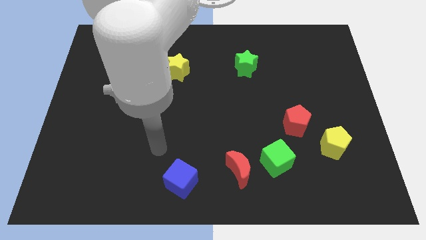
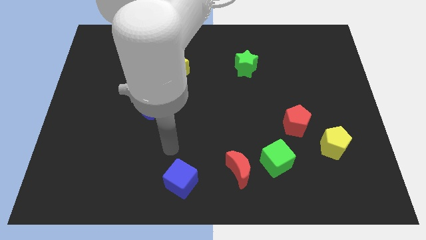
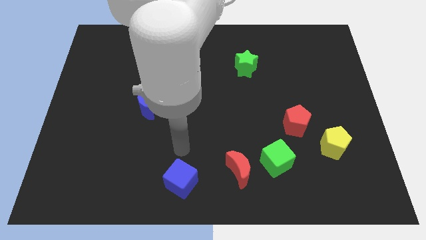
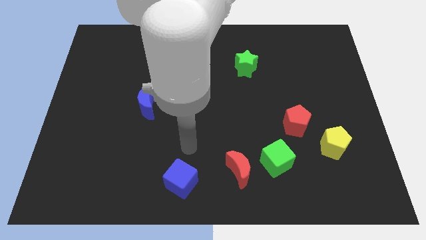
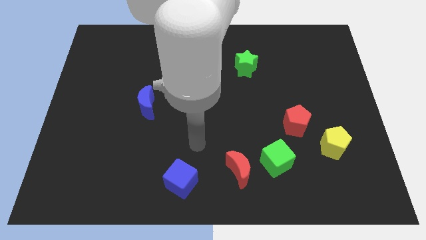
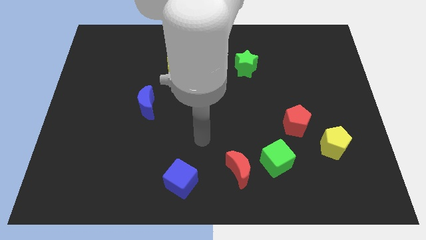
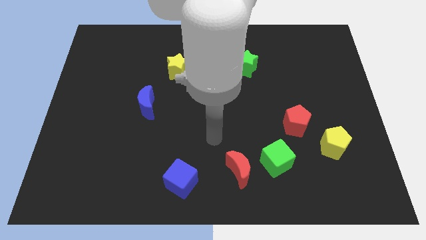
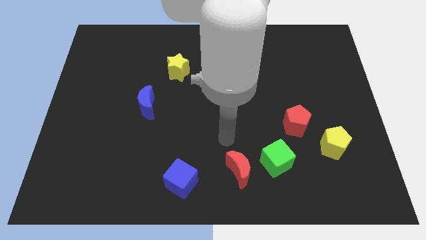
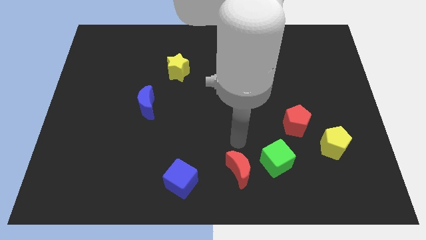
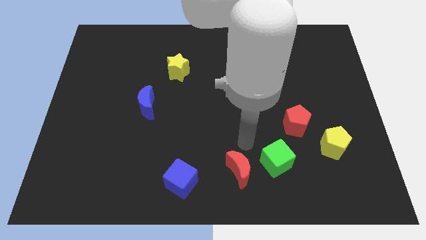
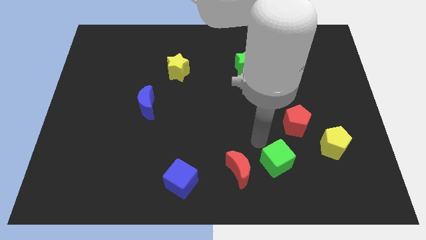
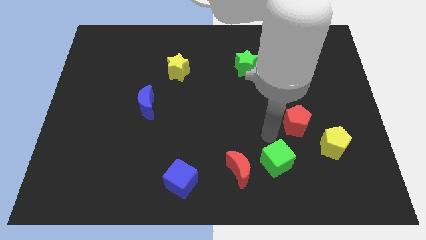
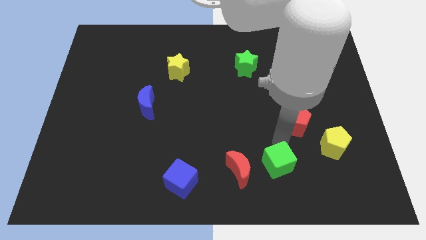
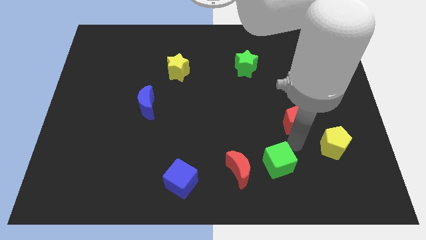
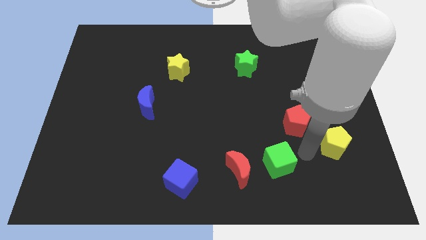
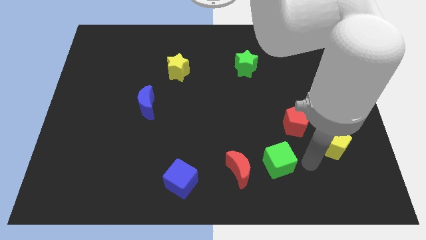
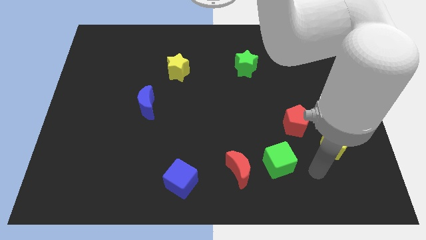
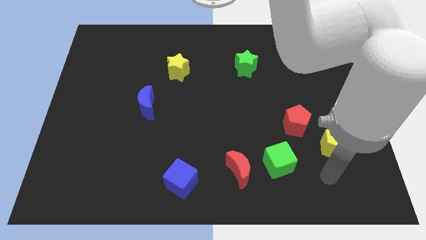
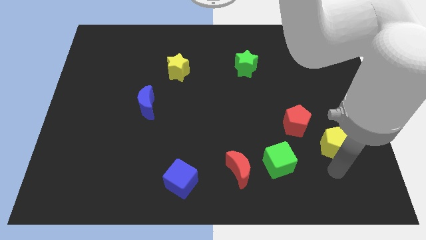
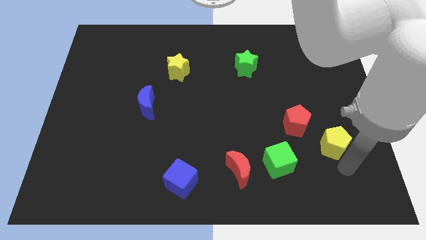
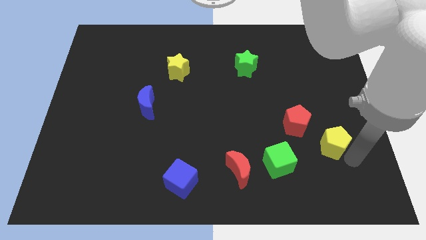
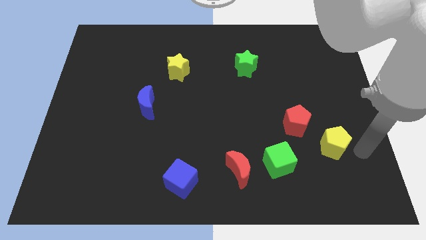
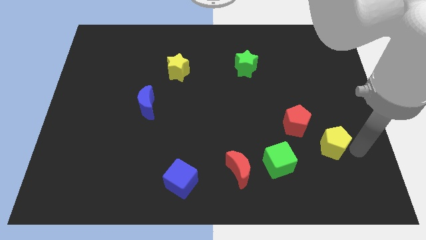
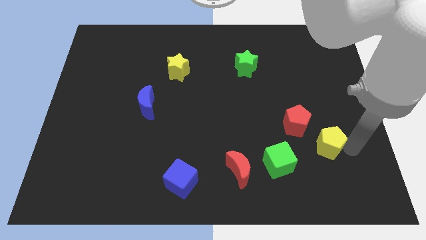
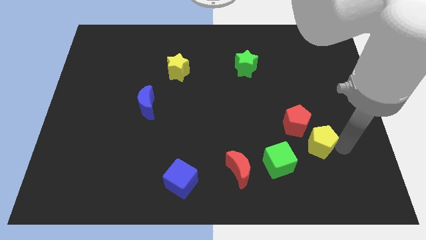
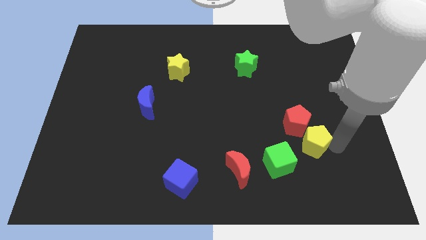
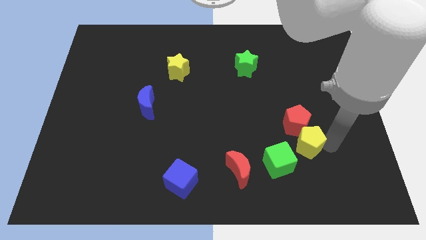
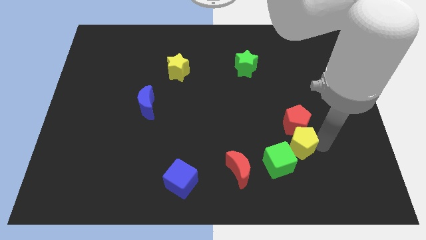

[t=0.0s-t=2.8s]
move the yellow pentagon a bit left

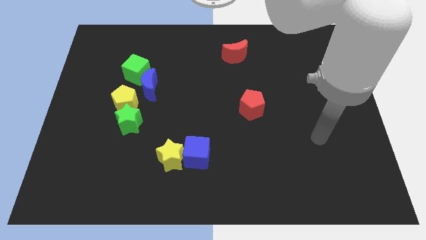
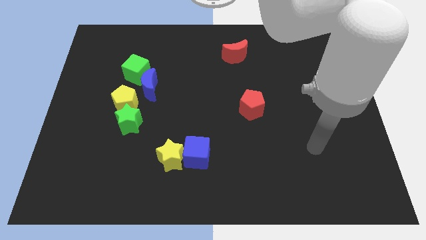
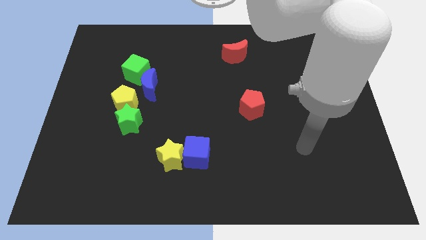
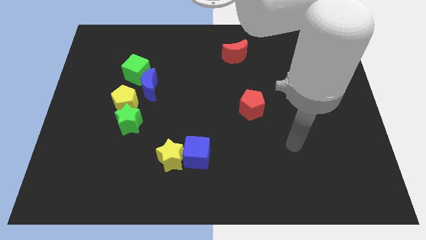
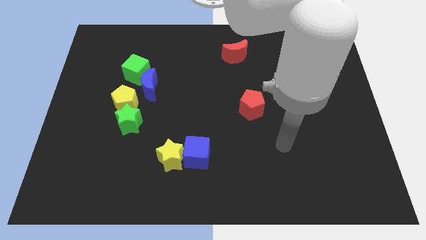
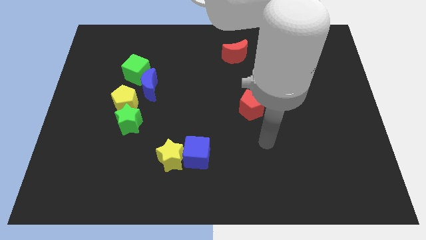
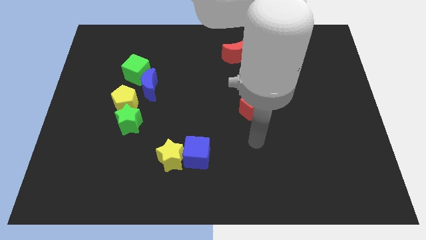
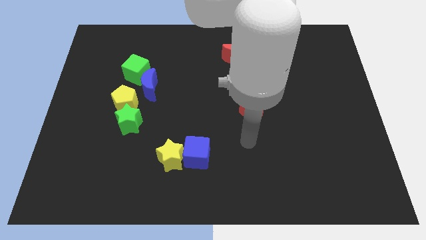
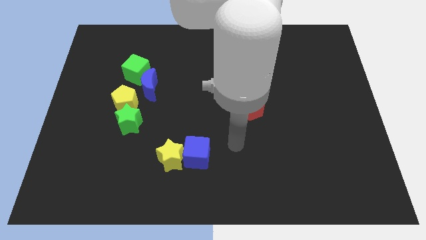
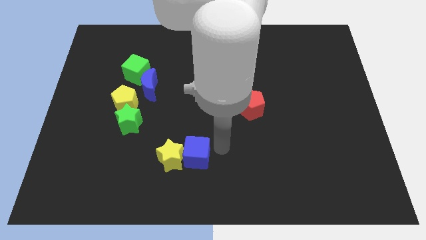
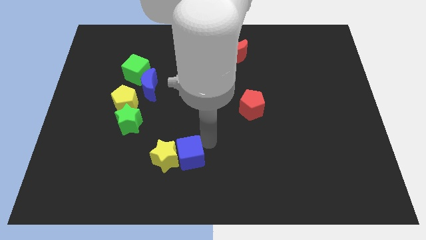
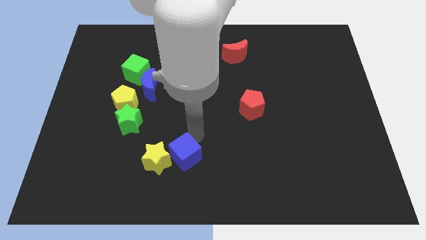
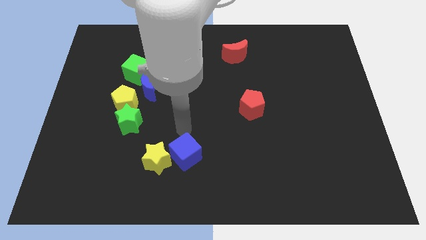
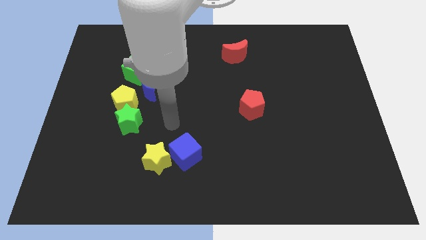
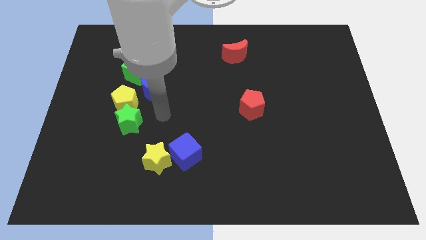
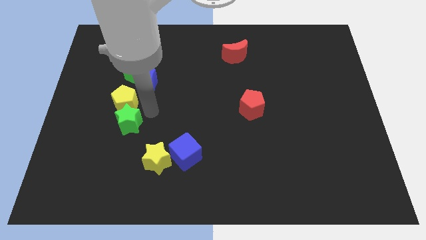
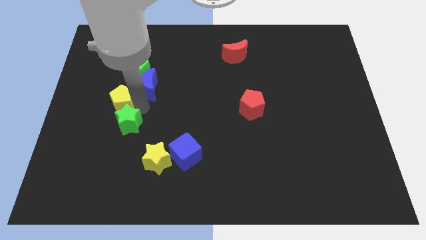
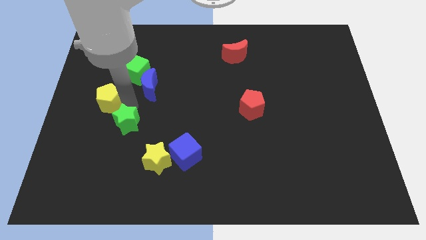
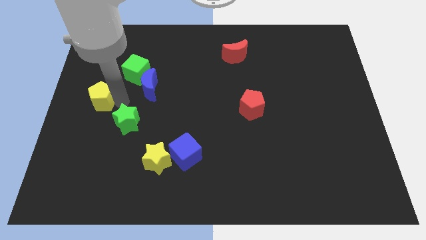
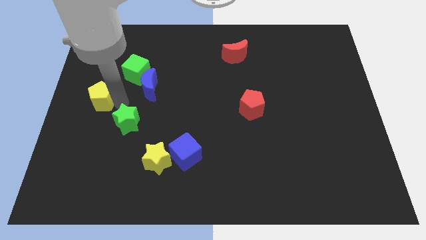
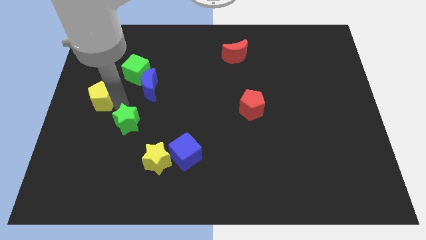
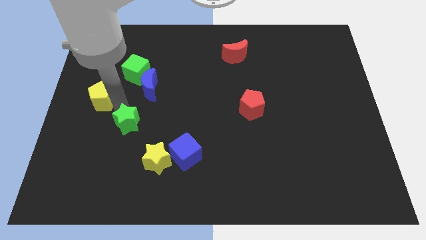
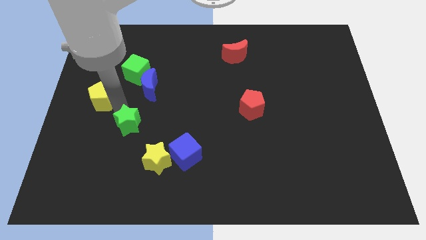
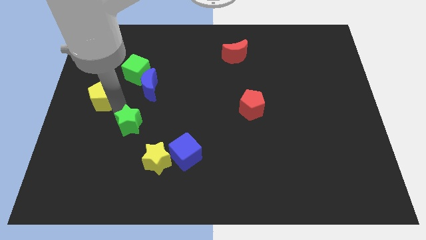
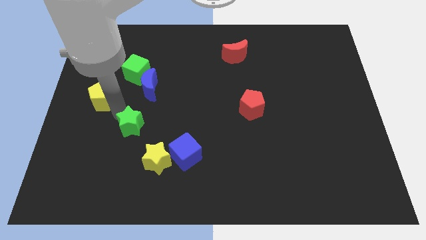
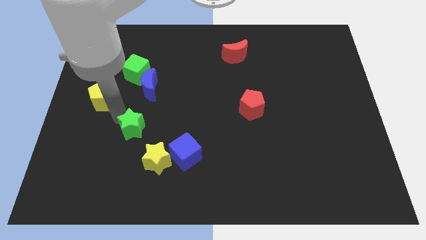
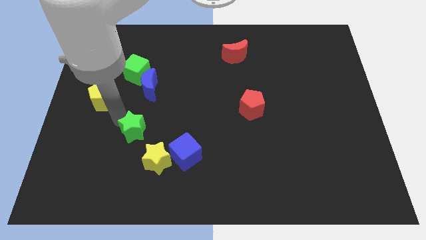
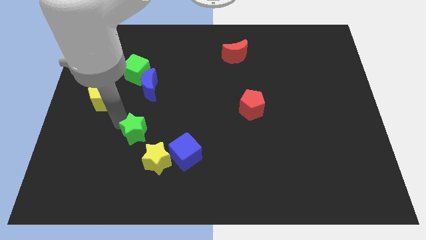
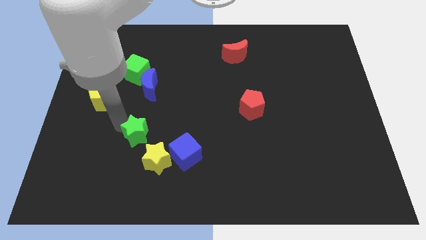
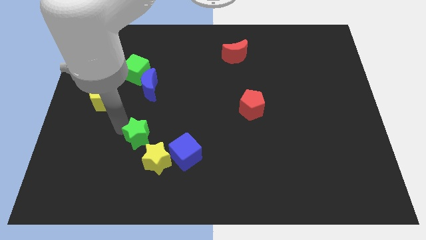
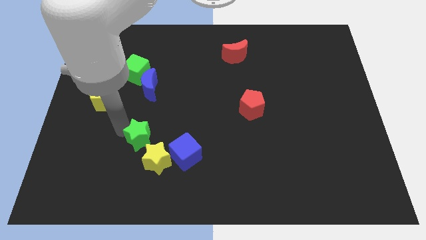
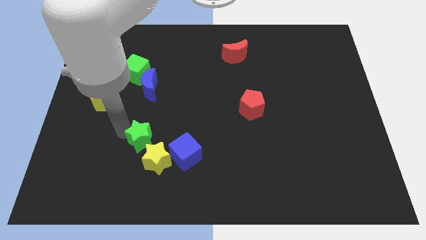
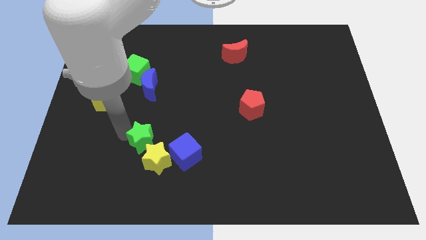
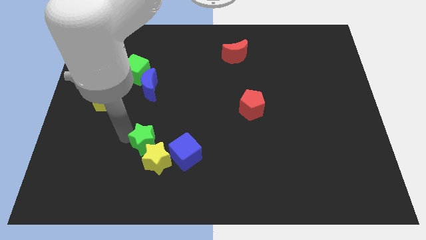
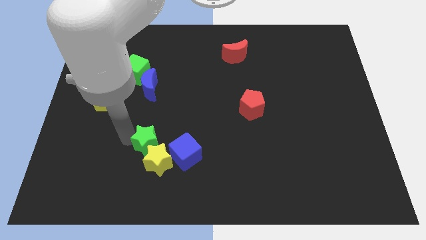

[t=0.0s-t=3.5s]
slightly move the green star diagonally down and to the right

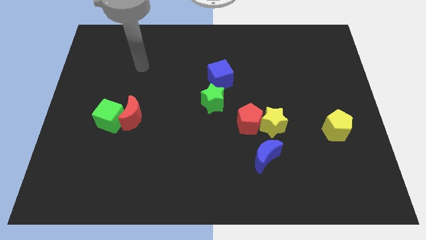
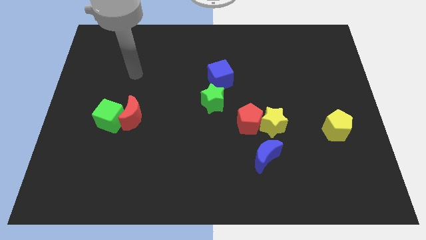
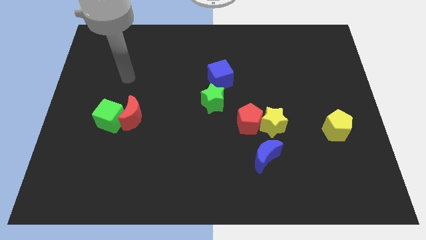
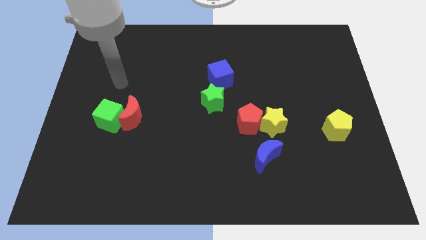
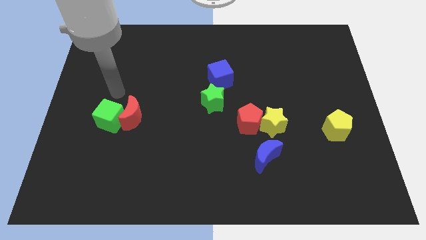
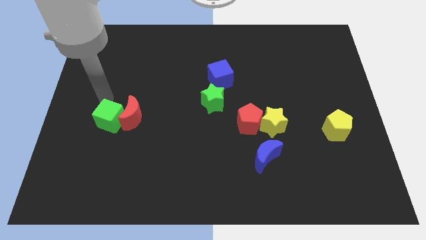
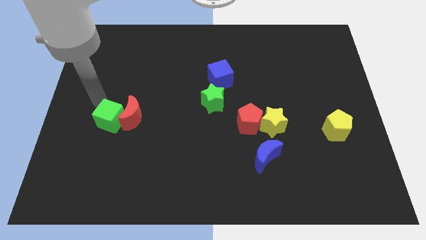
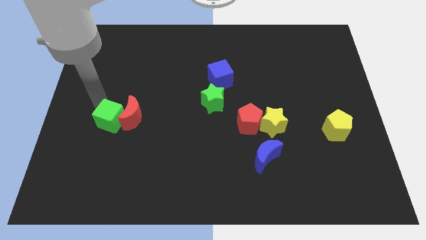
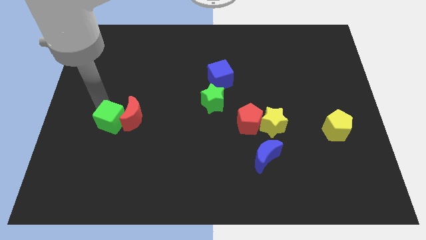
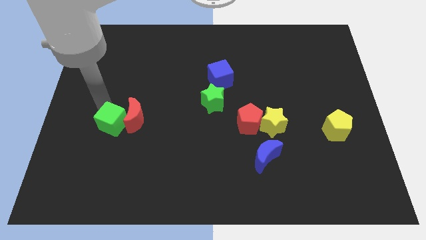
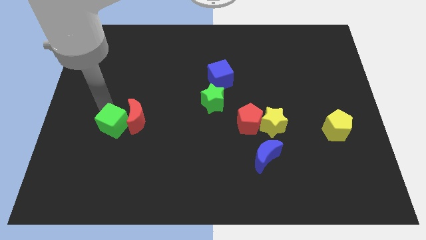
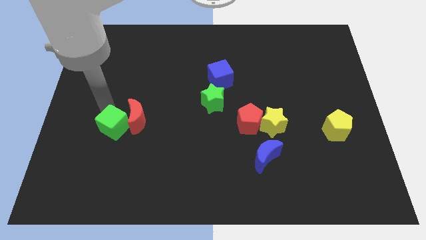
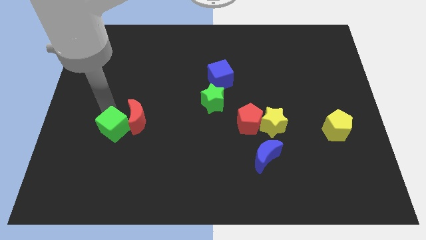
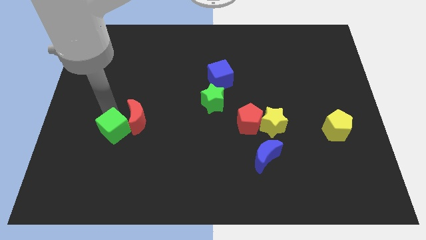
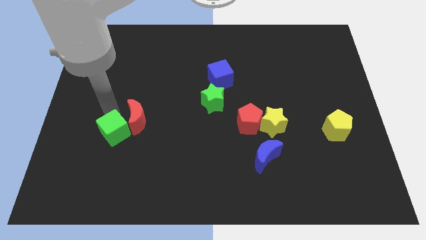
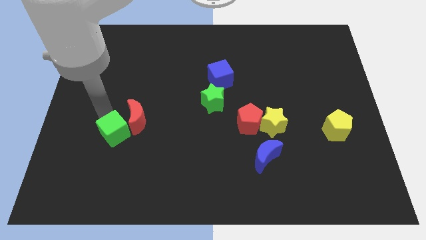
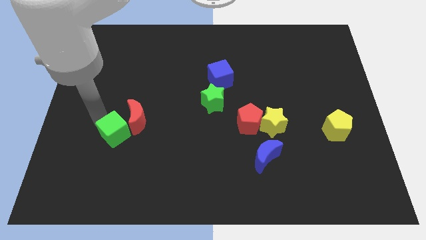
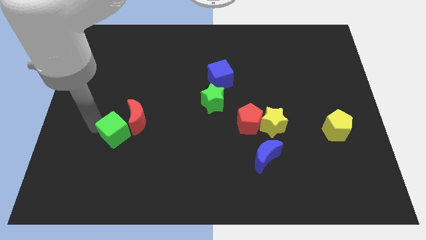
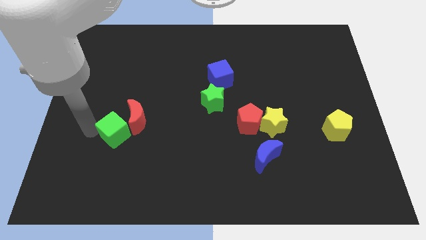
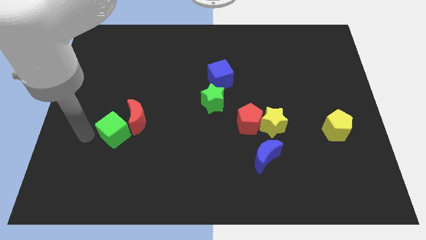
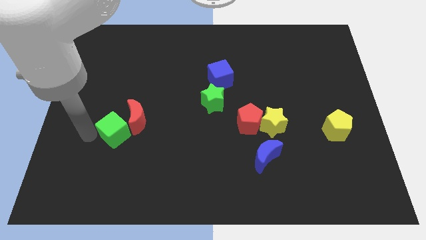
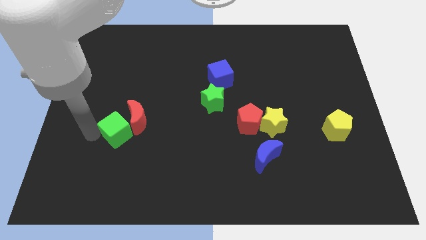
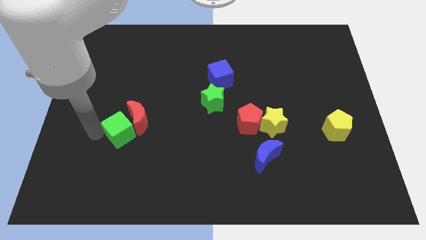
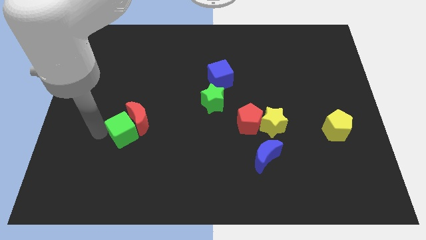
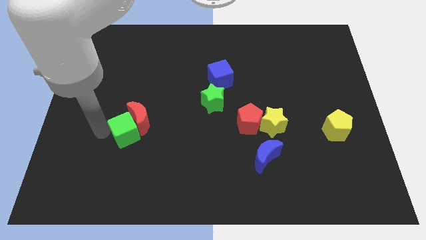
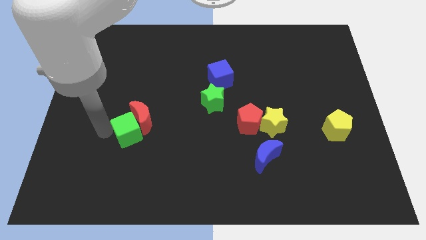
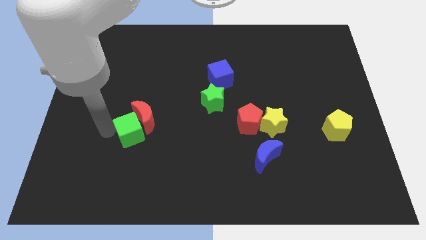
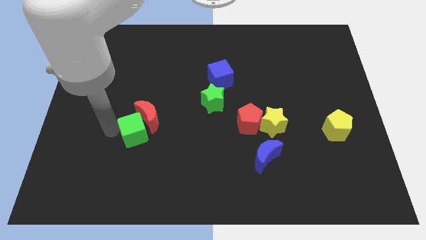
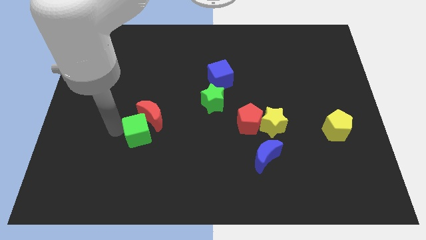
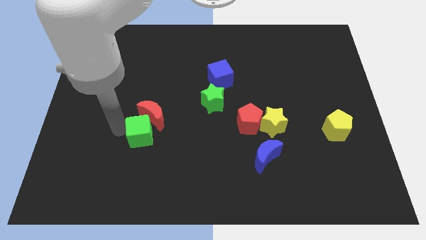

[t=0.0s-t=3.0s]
move the green cube to the right slightly
